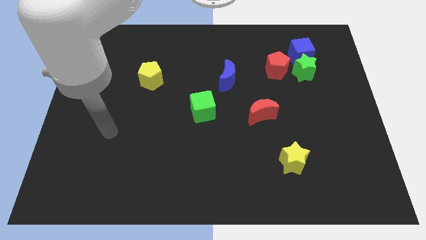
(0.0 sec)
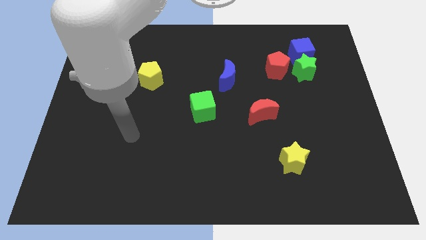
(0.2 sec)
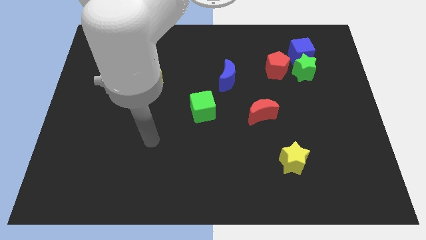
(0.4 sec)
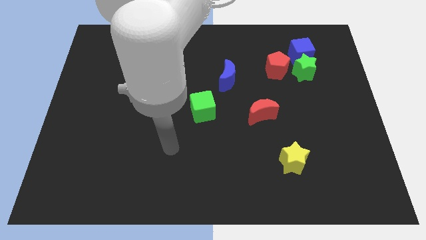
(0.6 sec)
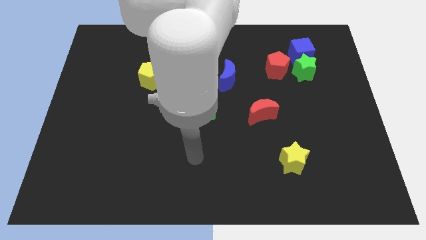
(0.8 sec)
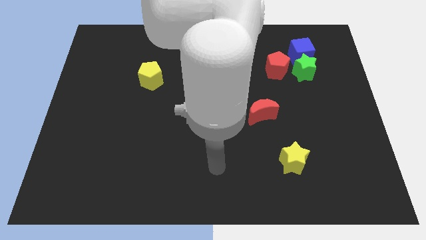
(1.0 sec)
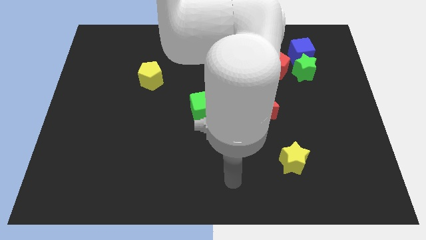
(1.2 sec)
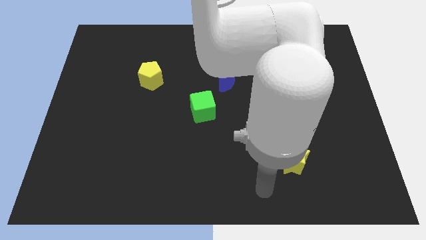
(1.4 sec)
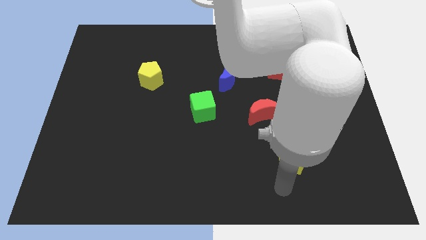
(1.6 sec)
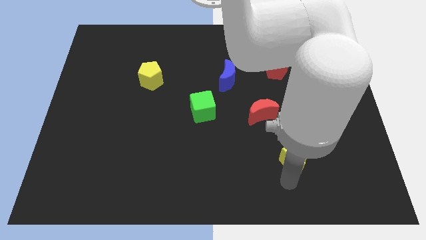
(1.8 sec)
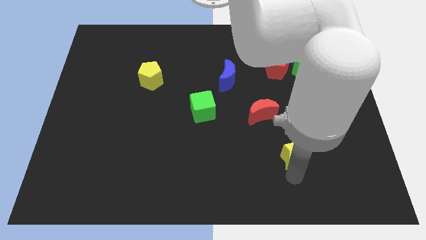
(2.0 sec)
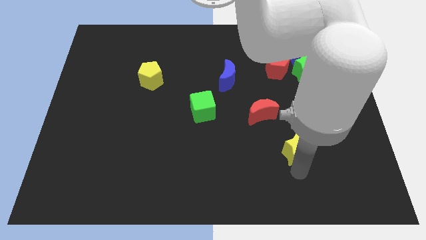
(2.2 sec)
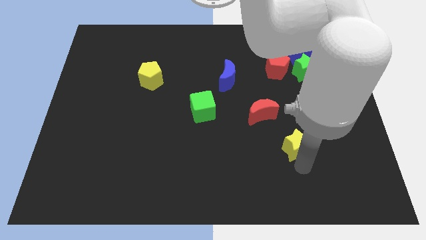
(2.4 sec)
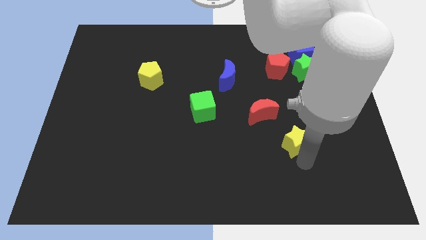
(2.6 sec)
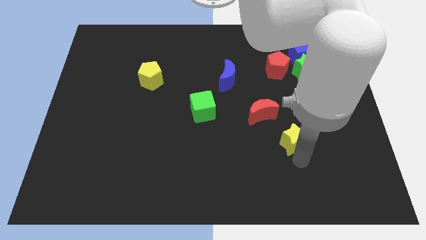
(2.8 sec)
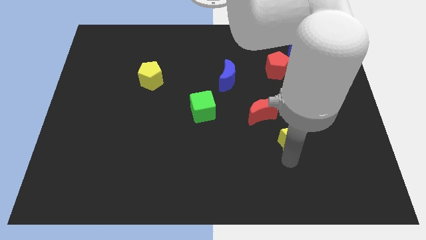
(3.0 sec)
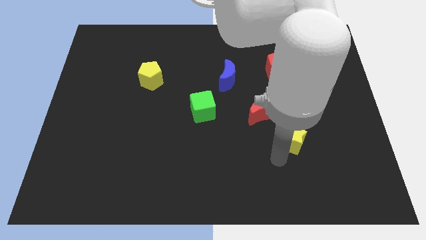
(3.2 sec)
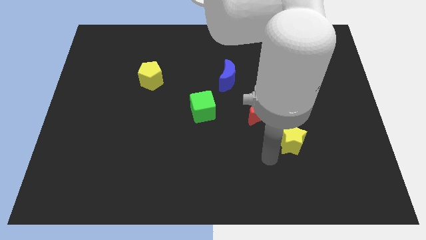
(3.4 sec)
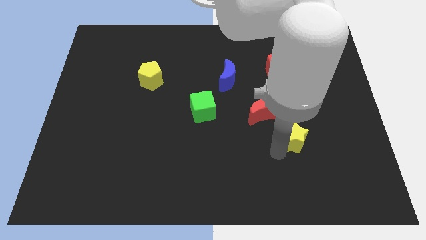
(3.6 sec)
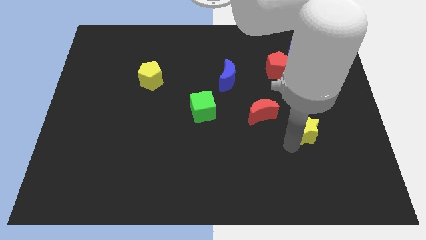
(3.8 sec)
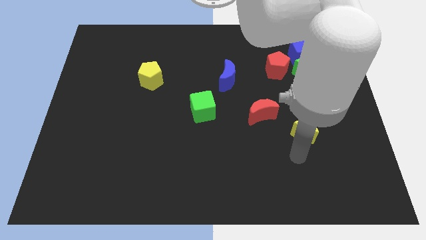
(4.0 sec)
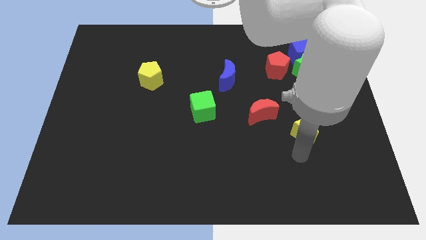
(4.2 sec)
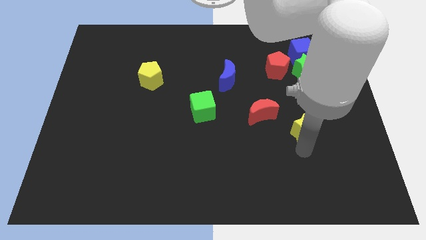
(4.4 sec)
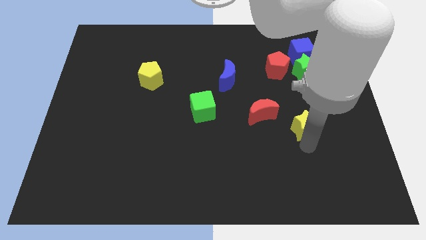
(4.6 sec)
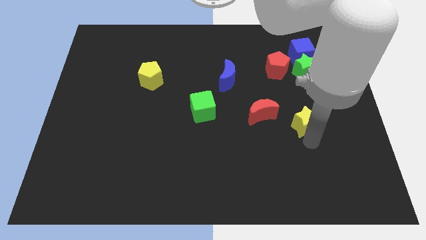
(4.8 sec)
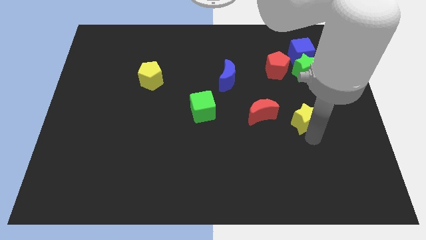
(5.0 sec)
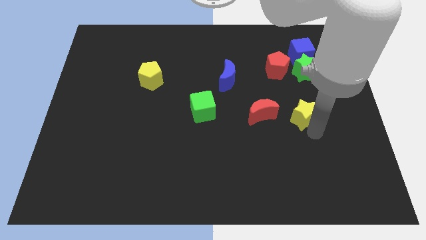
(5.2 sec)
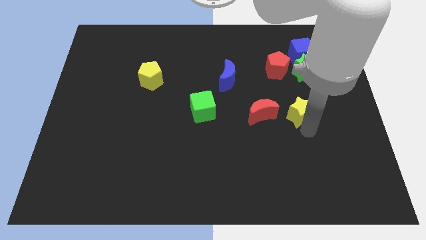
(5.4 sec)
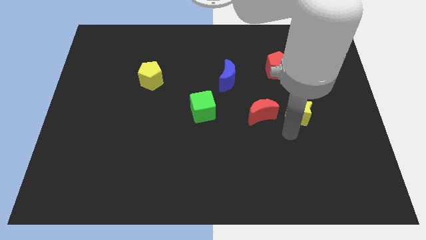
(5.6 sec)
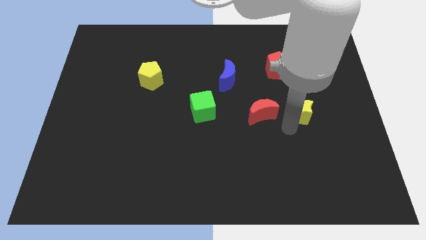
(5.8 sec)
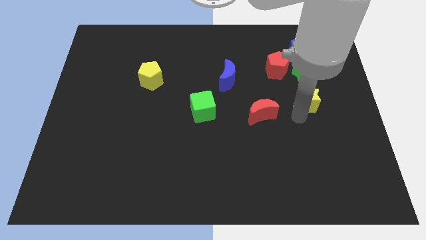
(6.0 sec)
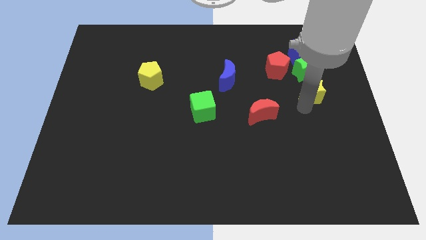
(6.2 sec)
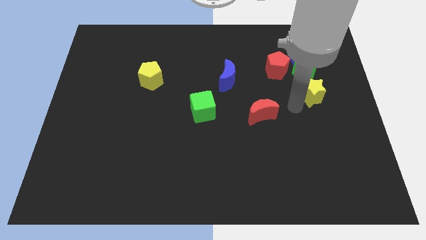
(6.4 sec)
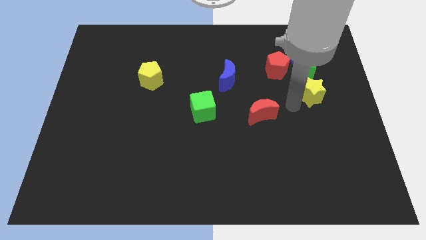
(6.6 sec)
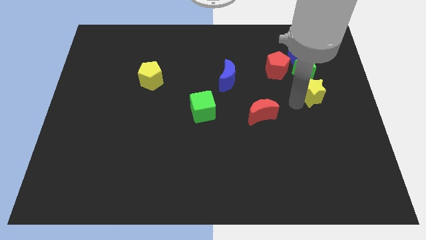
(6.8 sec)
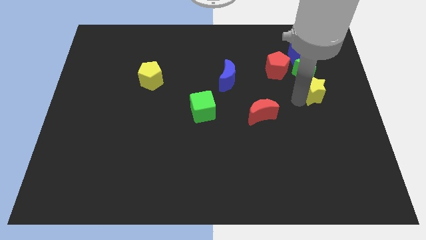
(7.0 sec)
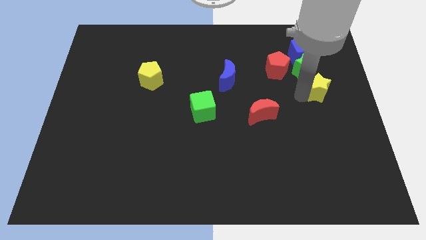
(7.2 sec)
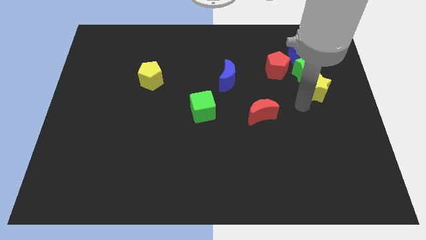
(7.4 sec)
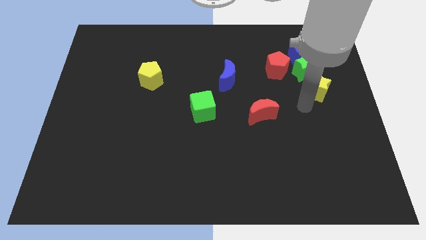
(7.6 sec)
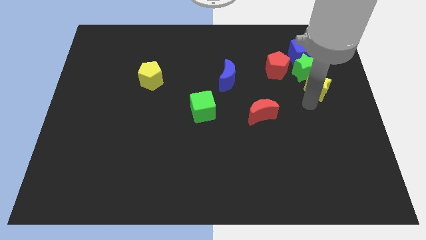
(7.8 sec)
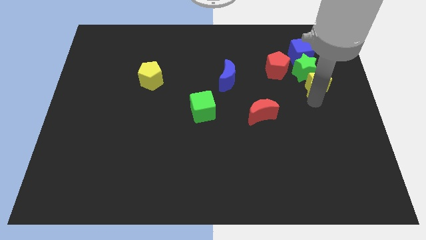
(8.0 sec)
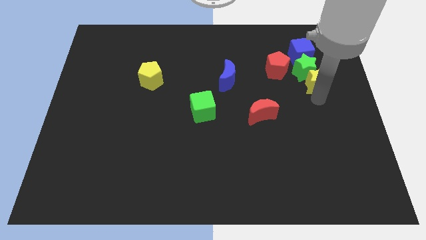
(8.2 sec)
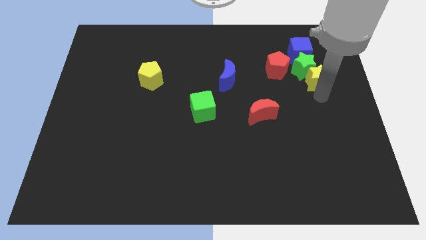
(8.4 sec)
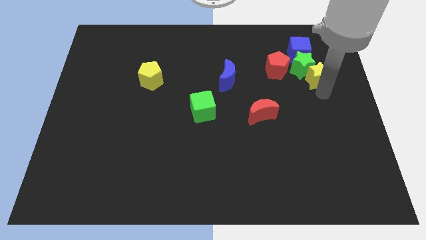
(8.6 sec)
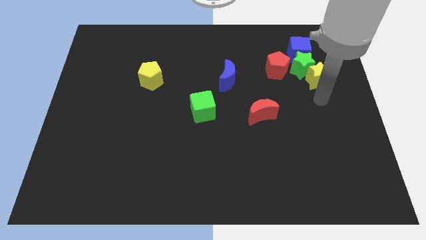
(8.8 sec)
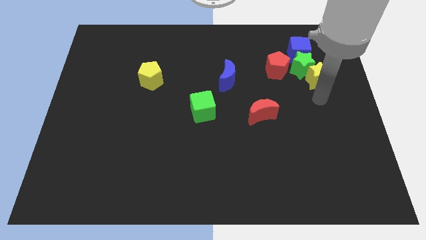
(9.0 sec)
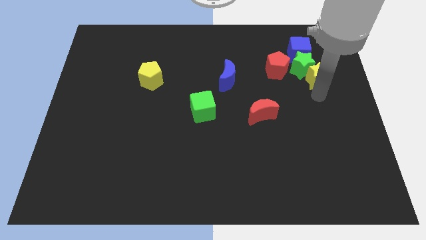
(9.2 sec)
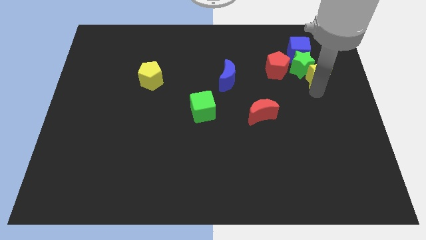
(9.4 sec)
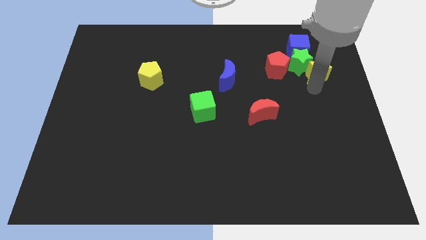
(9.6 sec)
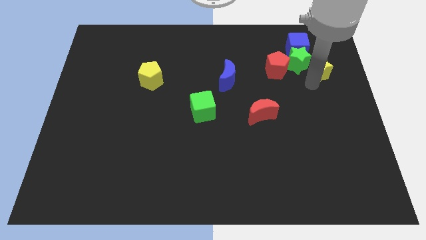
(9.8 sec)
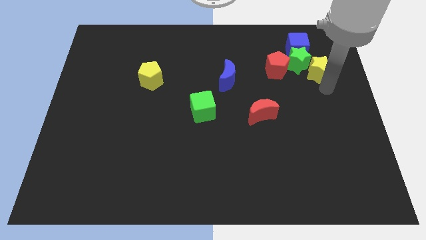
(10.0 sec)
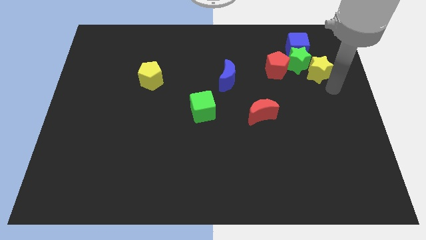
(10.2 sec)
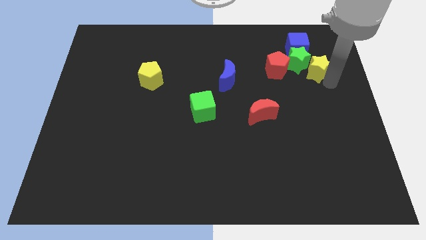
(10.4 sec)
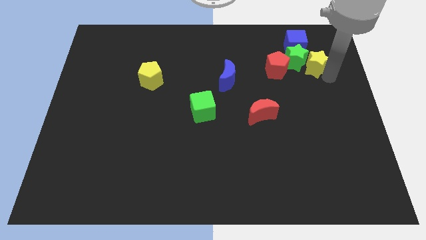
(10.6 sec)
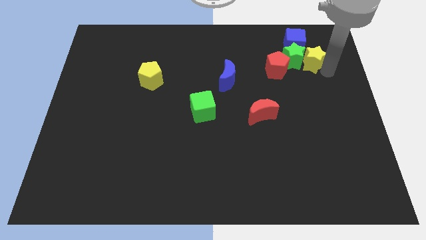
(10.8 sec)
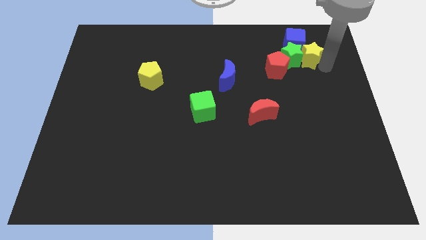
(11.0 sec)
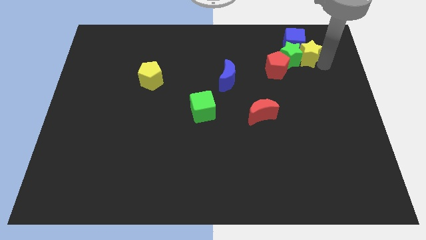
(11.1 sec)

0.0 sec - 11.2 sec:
move the yellow star next to the blue cube
